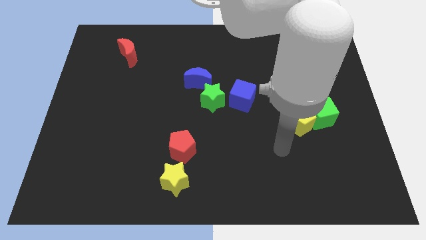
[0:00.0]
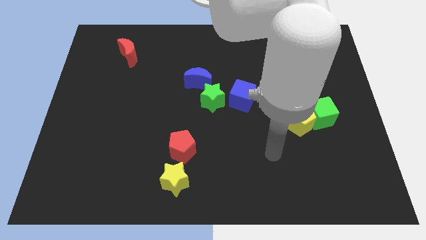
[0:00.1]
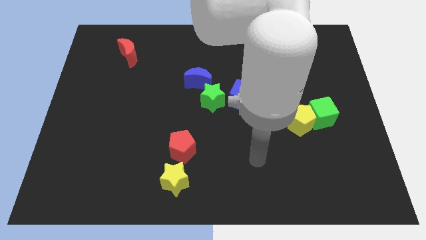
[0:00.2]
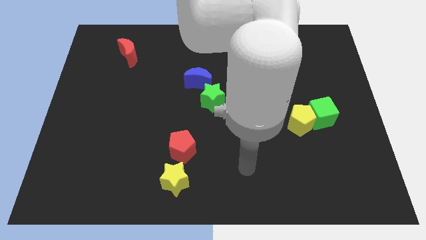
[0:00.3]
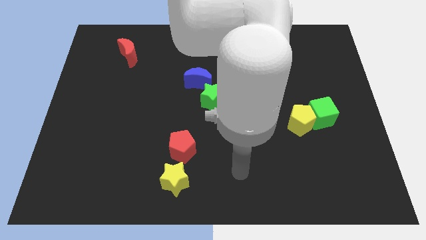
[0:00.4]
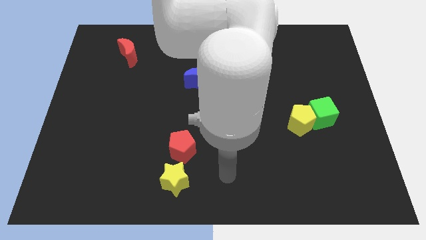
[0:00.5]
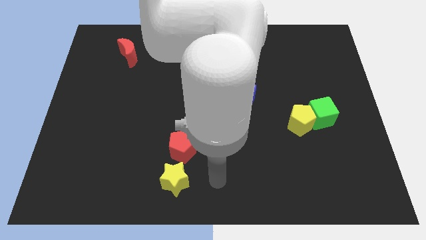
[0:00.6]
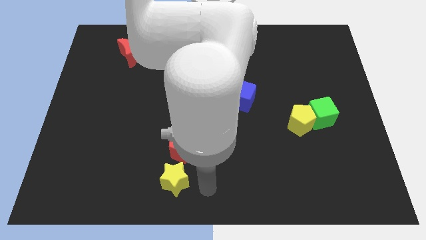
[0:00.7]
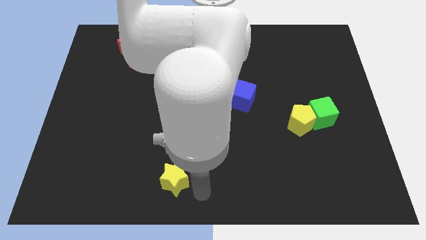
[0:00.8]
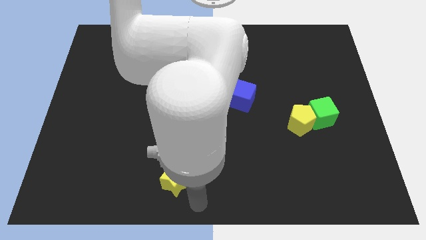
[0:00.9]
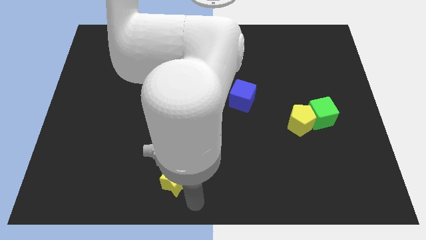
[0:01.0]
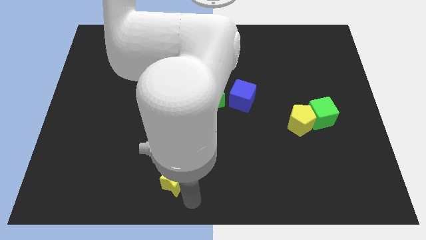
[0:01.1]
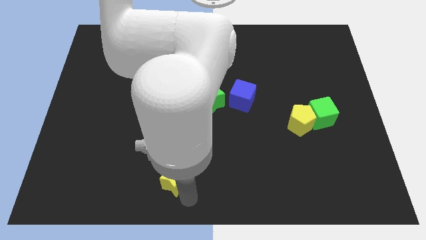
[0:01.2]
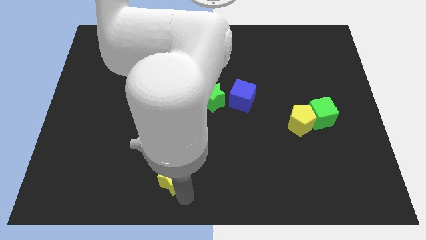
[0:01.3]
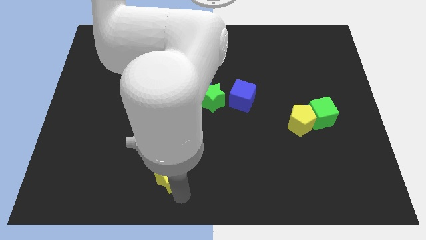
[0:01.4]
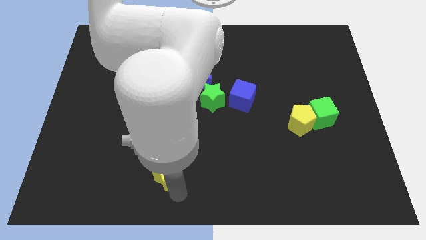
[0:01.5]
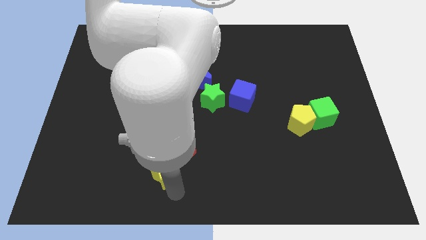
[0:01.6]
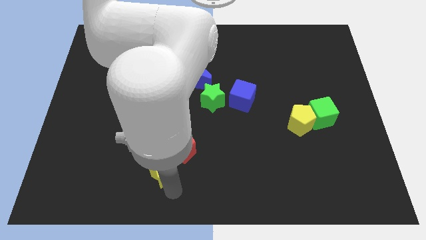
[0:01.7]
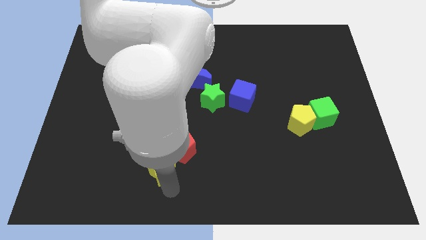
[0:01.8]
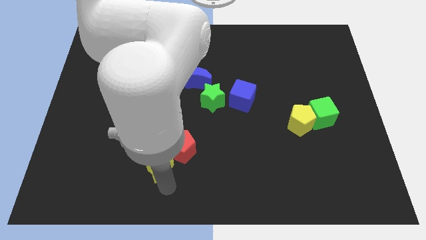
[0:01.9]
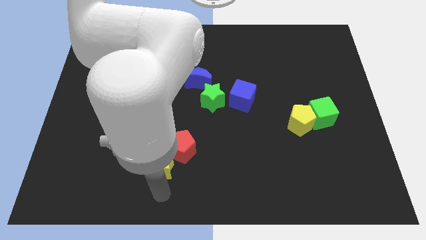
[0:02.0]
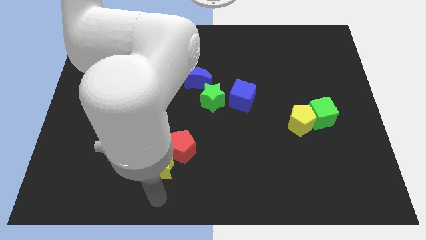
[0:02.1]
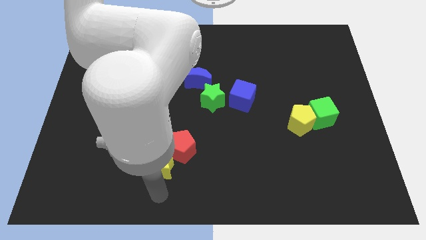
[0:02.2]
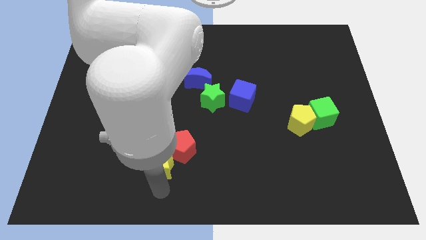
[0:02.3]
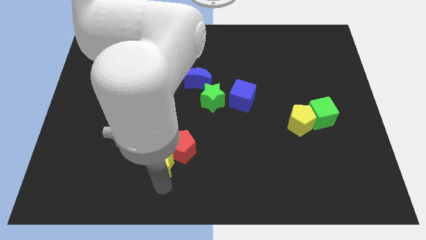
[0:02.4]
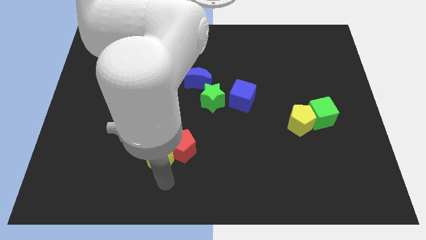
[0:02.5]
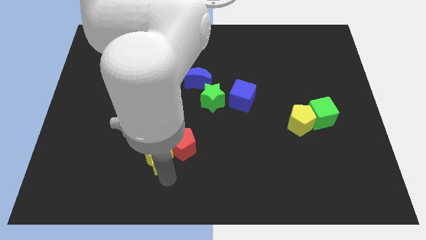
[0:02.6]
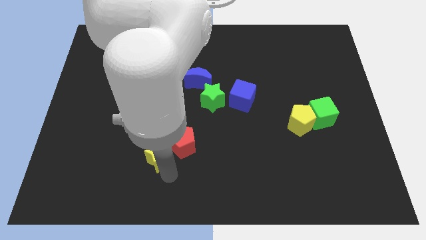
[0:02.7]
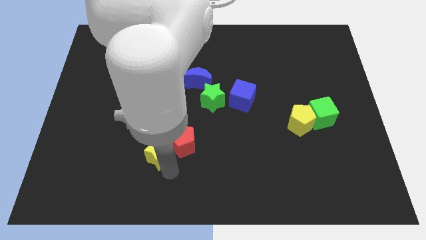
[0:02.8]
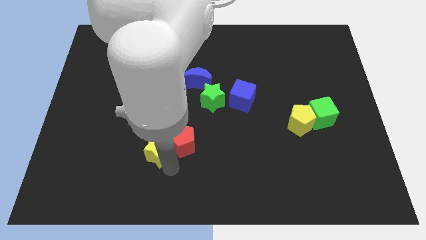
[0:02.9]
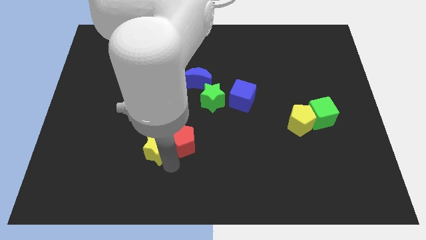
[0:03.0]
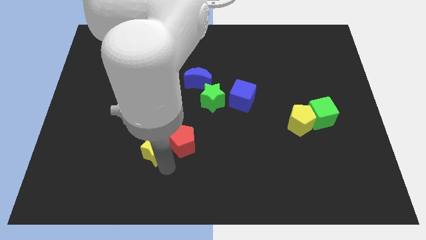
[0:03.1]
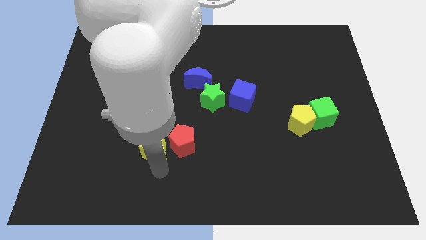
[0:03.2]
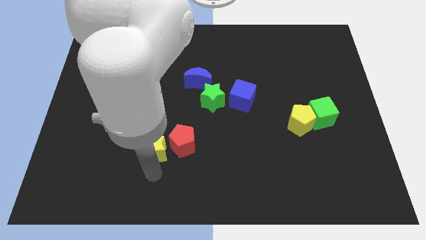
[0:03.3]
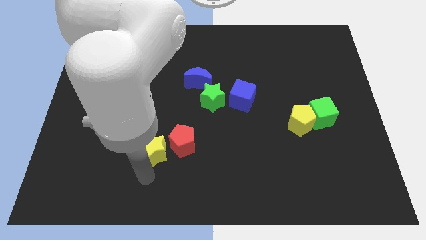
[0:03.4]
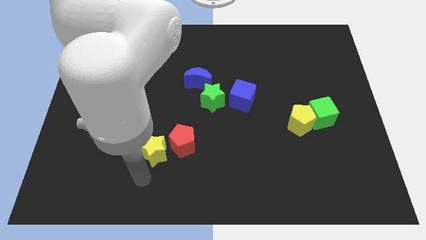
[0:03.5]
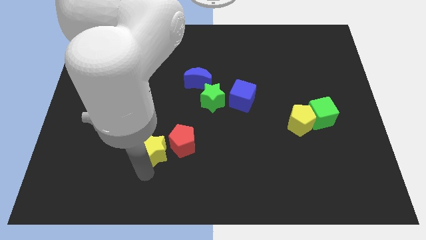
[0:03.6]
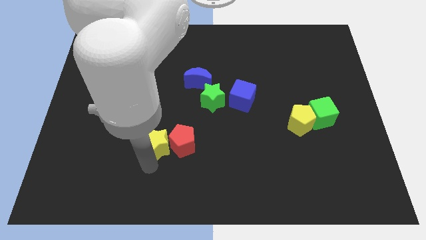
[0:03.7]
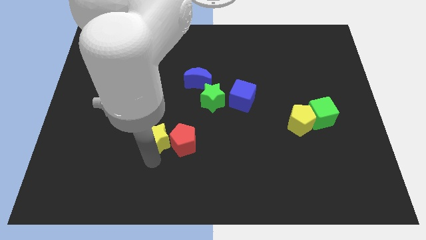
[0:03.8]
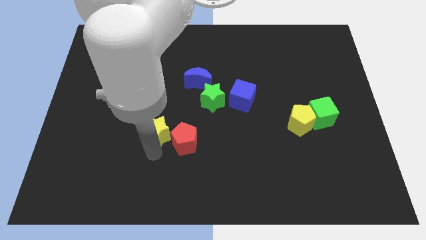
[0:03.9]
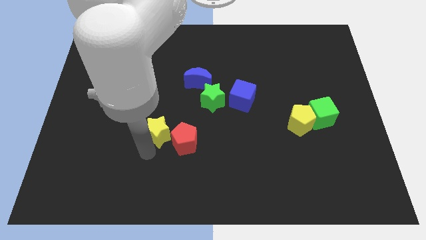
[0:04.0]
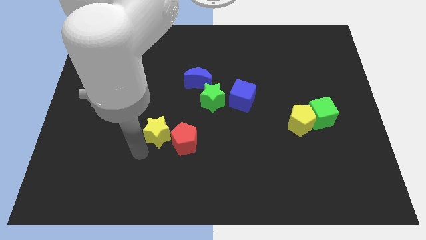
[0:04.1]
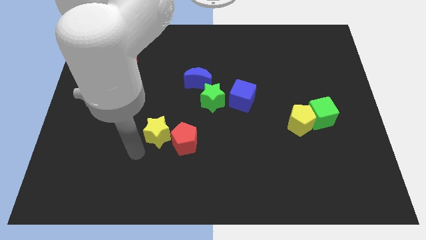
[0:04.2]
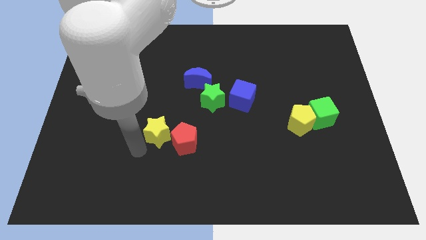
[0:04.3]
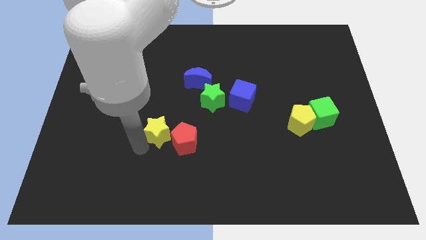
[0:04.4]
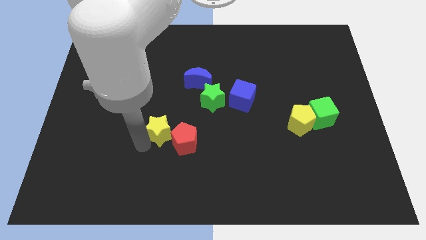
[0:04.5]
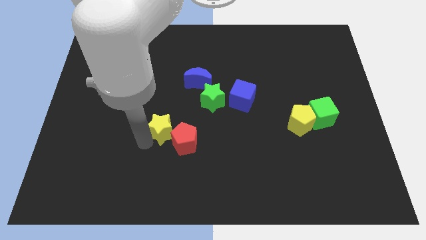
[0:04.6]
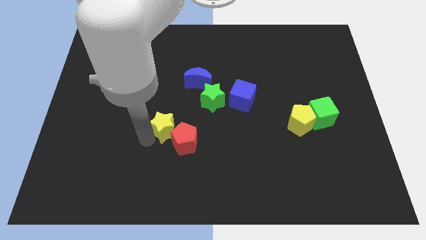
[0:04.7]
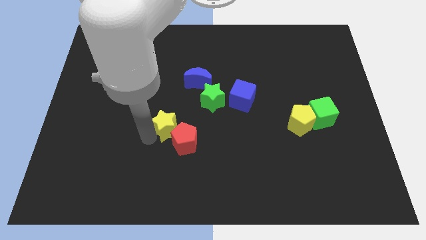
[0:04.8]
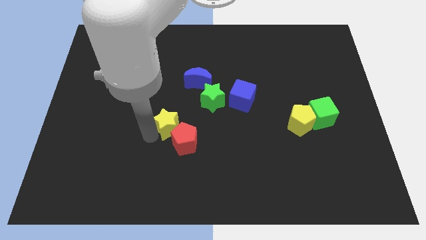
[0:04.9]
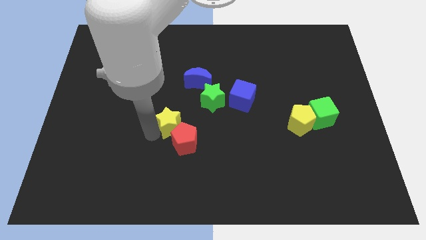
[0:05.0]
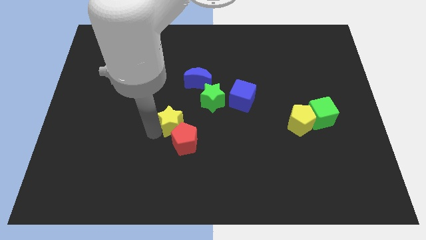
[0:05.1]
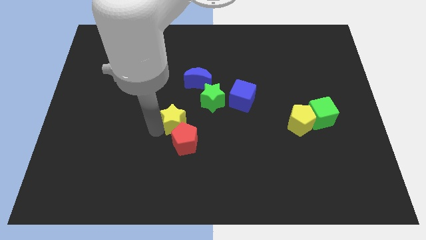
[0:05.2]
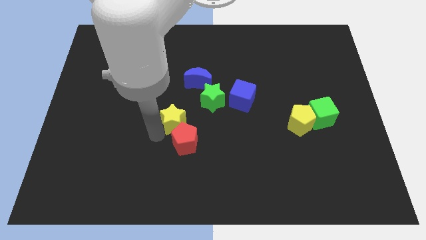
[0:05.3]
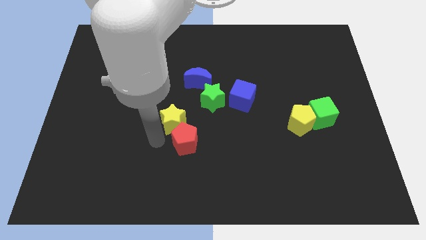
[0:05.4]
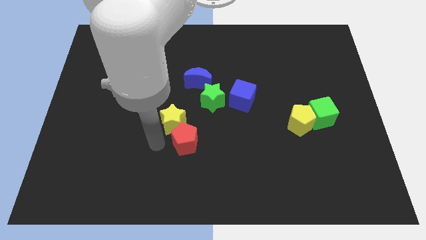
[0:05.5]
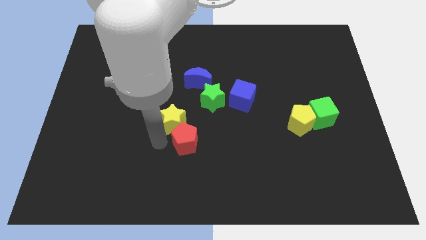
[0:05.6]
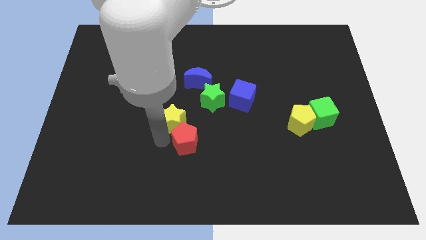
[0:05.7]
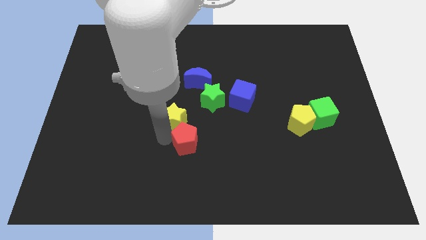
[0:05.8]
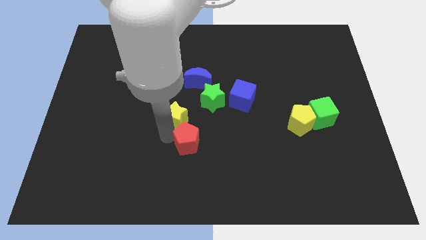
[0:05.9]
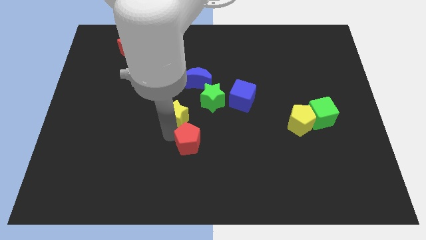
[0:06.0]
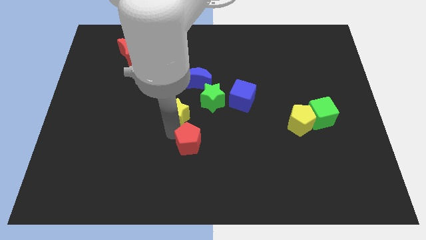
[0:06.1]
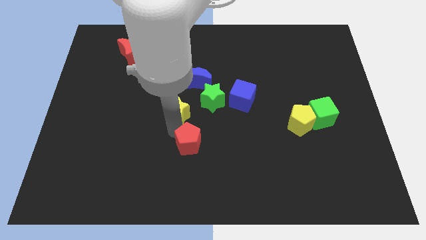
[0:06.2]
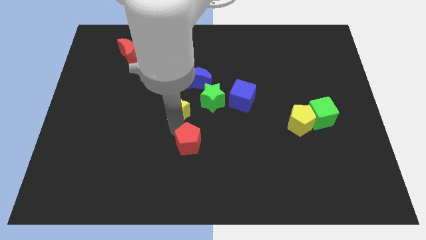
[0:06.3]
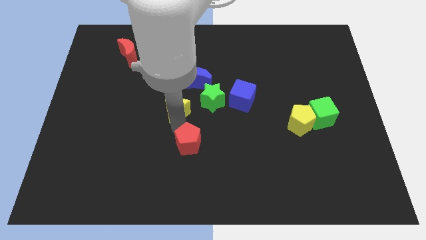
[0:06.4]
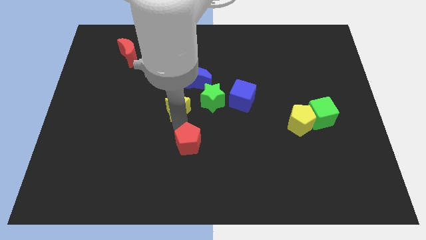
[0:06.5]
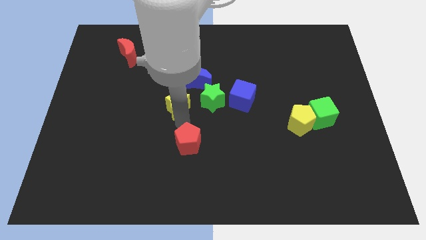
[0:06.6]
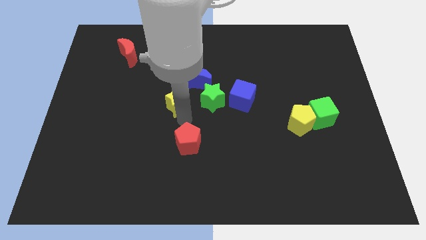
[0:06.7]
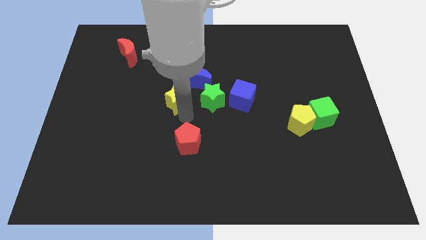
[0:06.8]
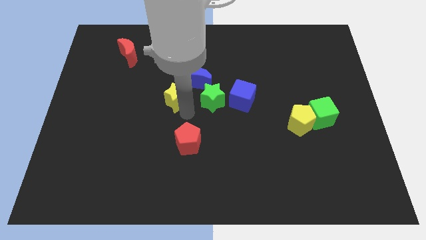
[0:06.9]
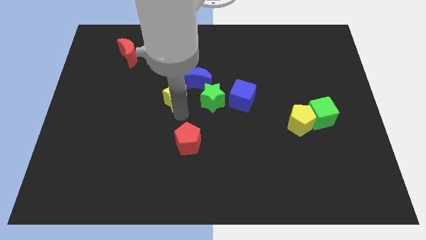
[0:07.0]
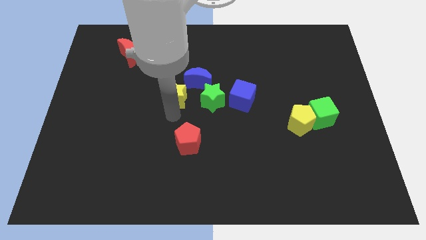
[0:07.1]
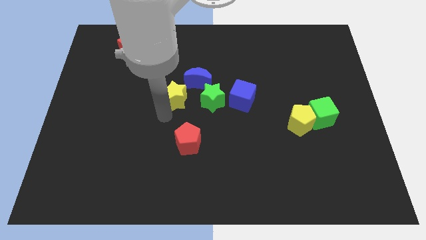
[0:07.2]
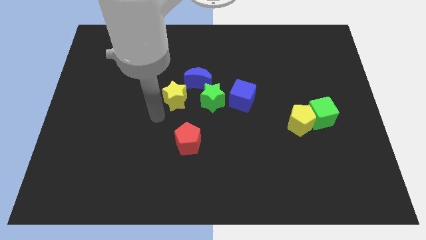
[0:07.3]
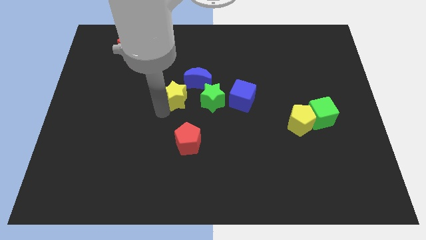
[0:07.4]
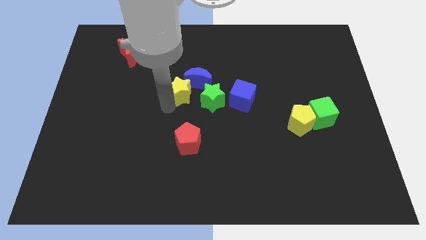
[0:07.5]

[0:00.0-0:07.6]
put the yellow star next to the blue moon

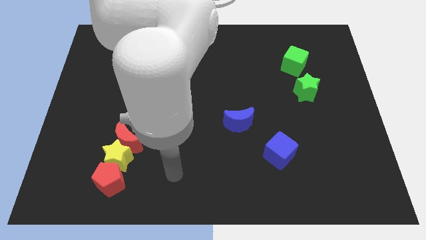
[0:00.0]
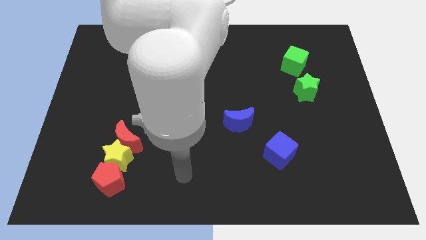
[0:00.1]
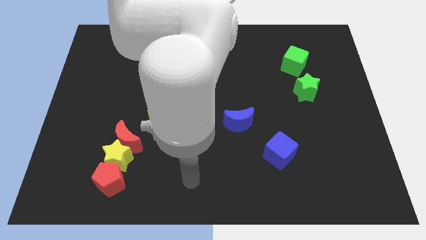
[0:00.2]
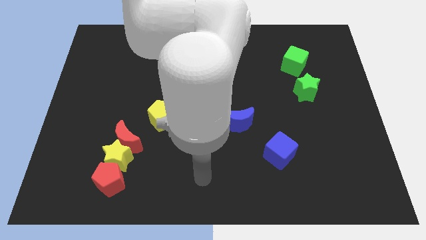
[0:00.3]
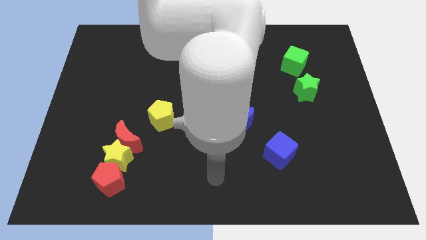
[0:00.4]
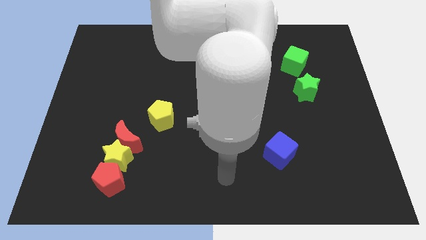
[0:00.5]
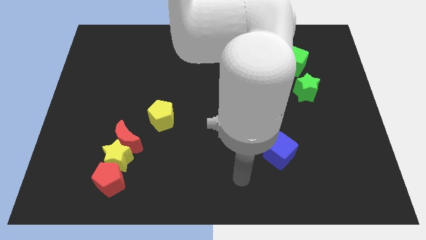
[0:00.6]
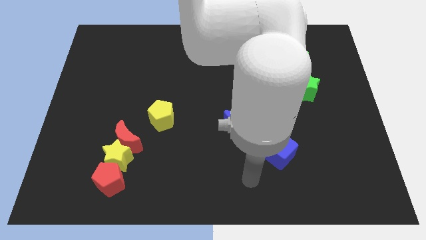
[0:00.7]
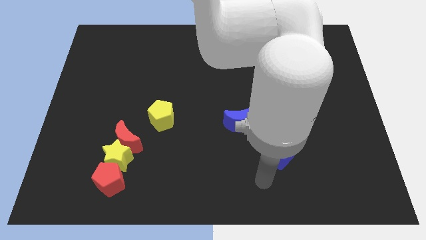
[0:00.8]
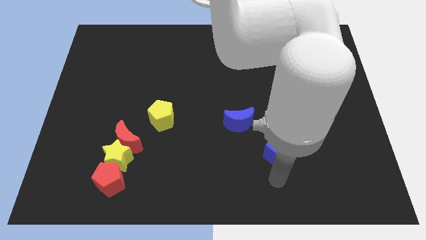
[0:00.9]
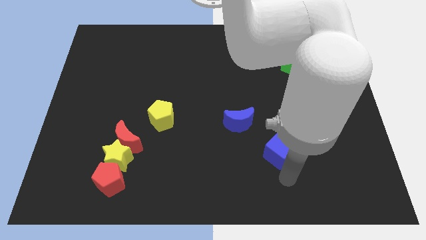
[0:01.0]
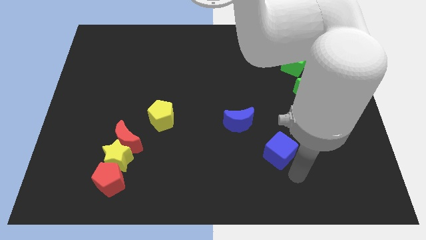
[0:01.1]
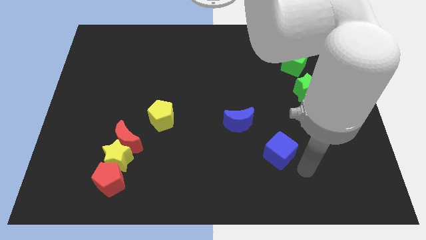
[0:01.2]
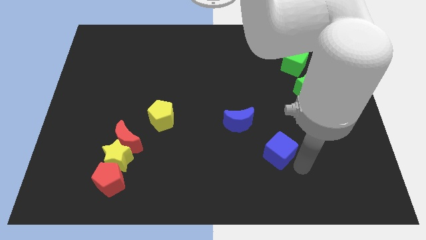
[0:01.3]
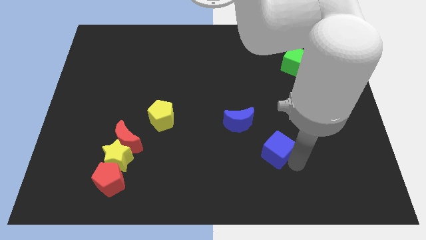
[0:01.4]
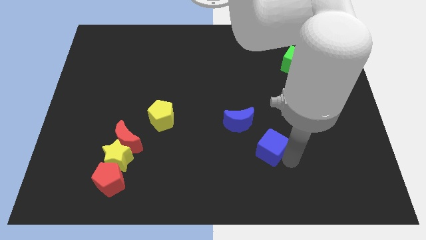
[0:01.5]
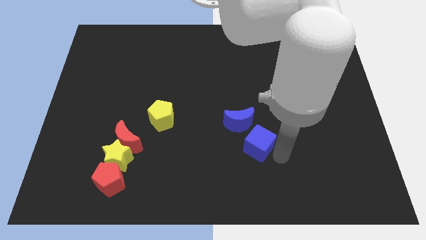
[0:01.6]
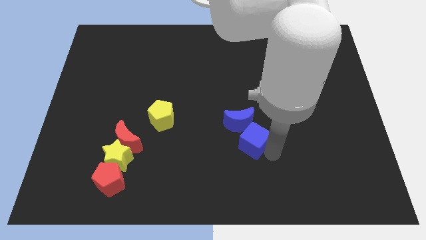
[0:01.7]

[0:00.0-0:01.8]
put the blue cube towards the blue moon
